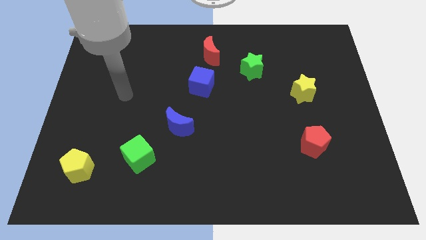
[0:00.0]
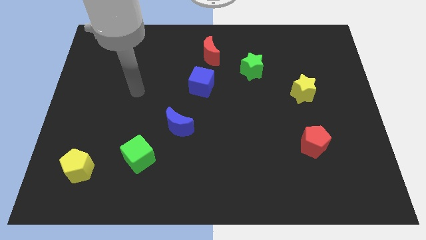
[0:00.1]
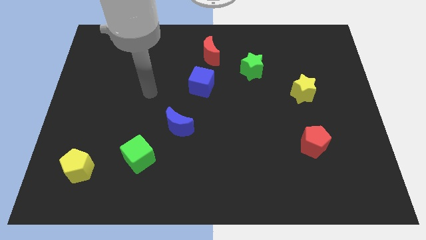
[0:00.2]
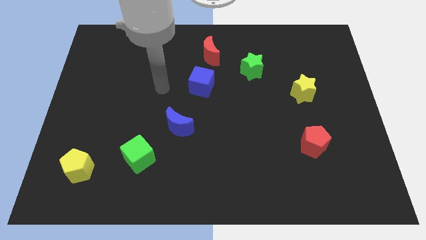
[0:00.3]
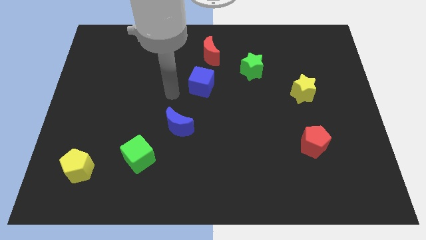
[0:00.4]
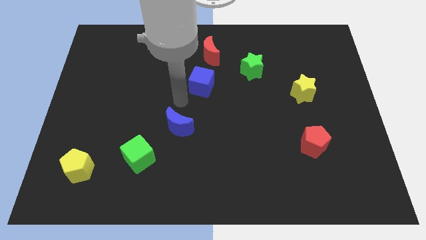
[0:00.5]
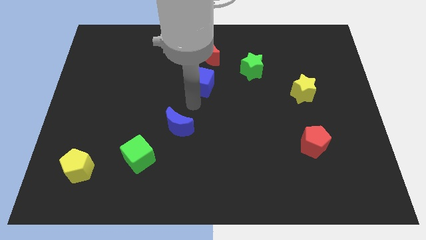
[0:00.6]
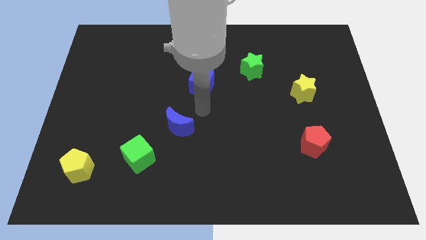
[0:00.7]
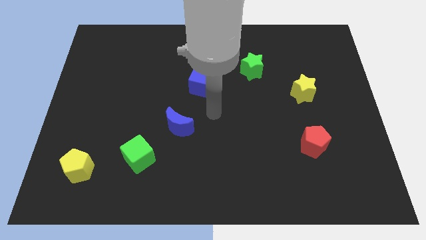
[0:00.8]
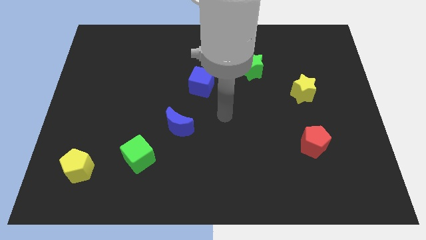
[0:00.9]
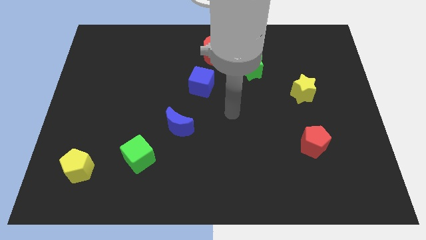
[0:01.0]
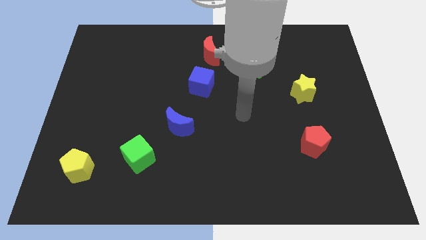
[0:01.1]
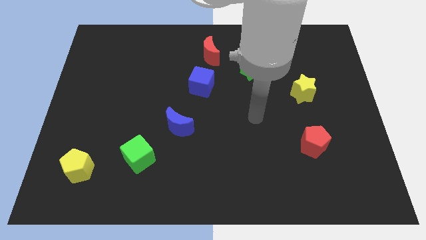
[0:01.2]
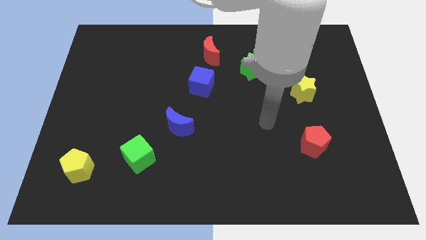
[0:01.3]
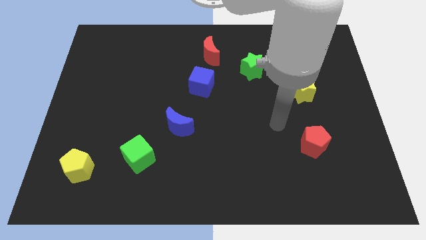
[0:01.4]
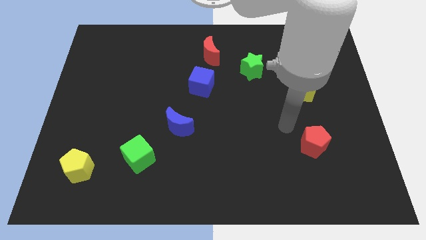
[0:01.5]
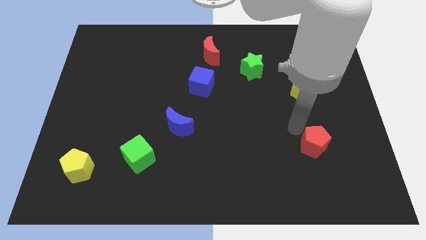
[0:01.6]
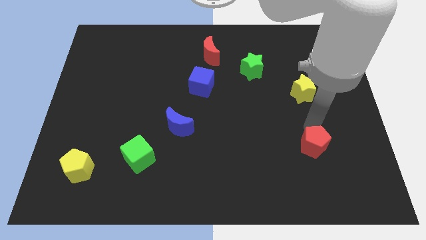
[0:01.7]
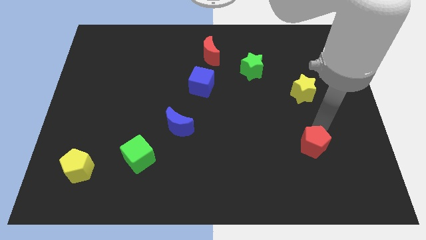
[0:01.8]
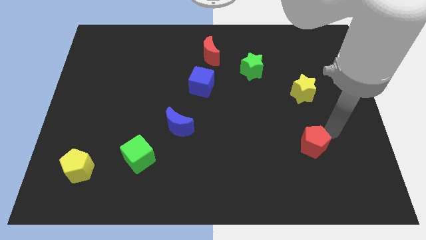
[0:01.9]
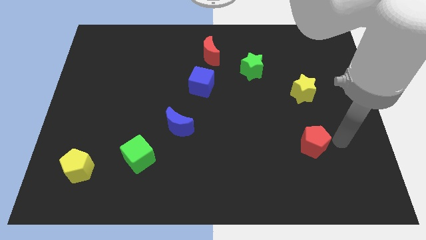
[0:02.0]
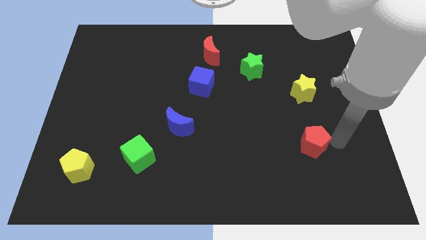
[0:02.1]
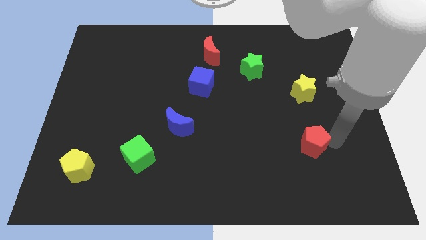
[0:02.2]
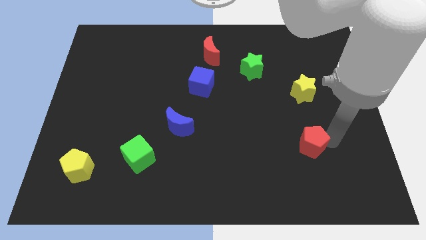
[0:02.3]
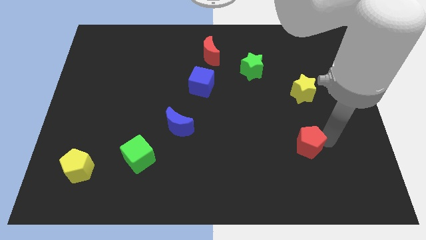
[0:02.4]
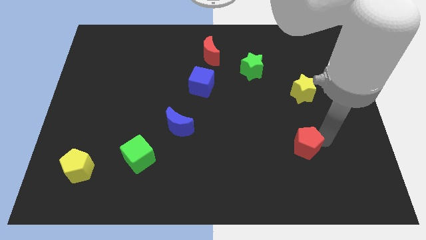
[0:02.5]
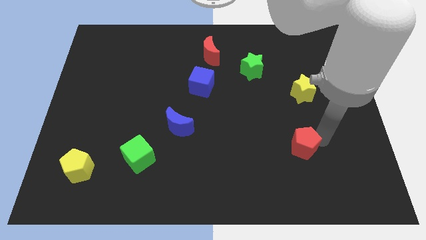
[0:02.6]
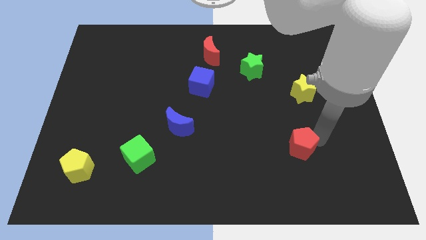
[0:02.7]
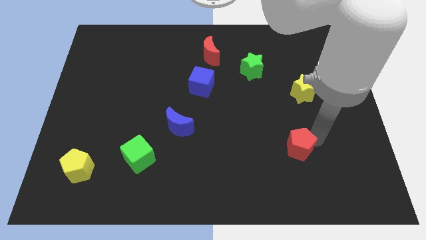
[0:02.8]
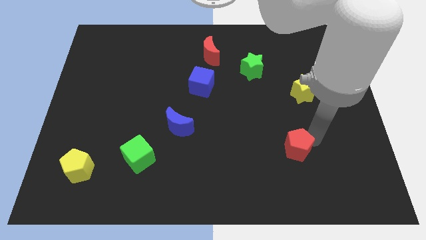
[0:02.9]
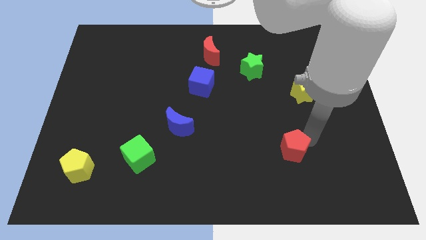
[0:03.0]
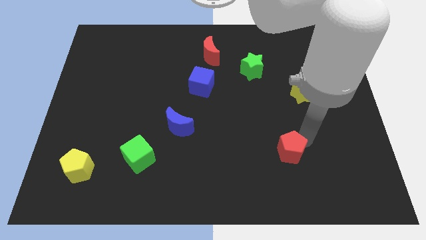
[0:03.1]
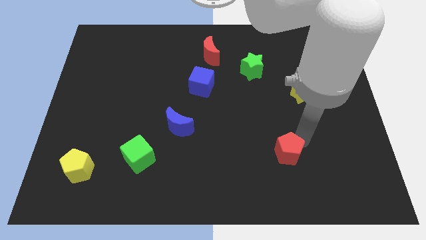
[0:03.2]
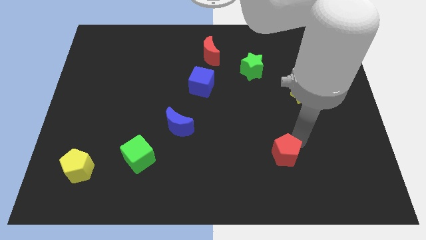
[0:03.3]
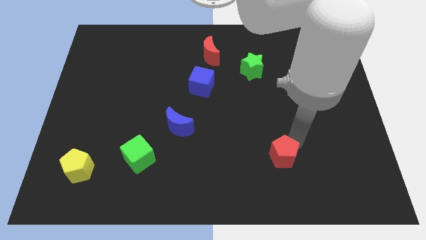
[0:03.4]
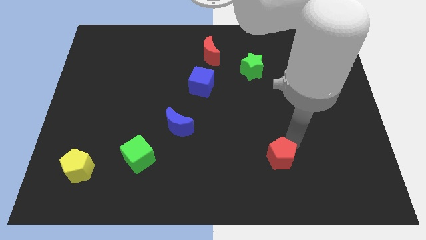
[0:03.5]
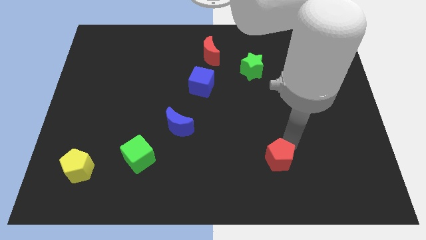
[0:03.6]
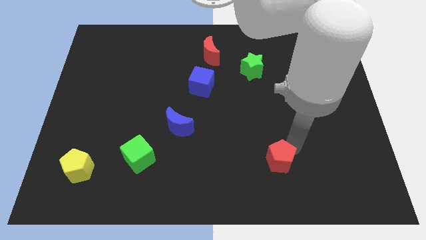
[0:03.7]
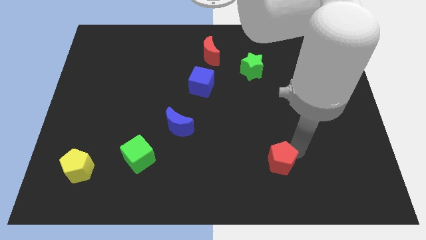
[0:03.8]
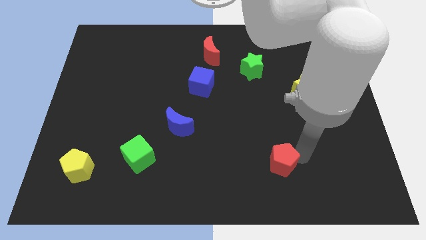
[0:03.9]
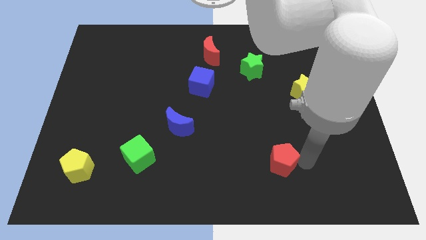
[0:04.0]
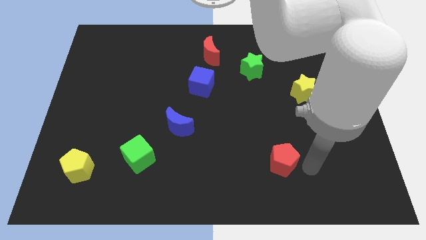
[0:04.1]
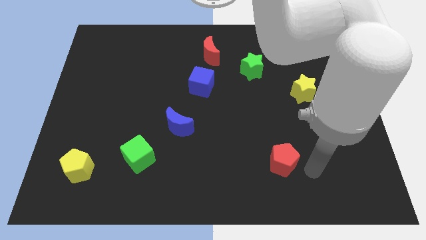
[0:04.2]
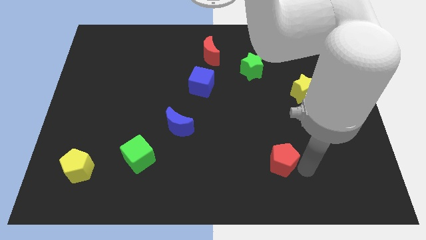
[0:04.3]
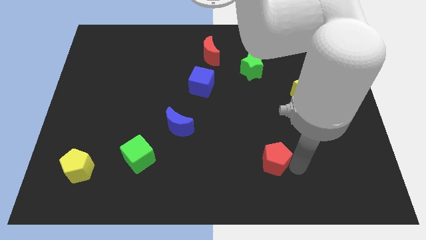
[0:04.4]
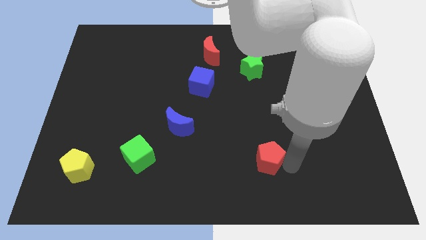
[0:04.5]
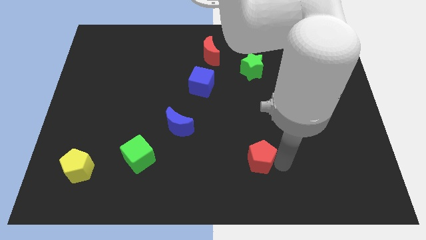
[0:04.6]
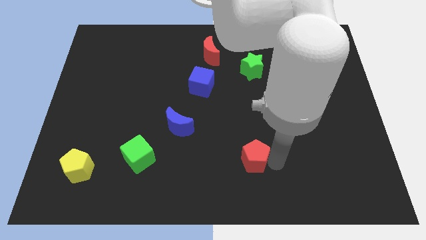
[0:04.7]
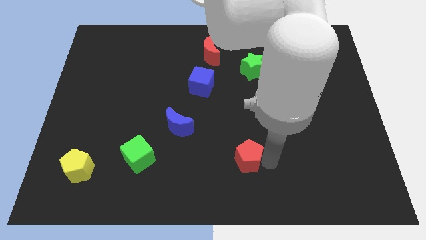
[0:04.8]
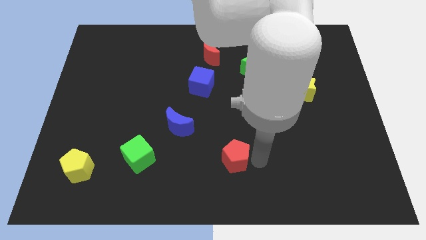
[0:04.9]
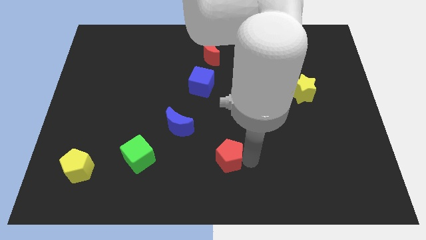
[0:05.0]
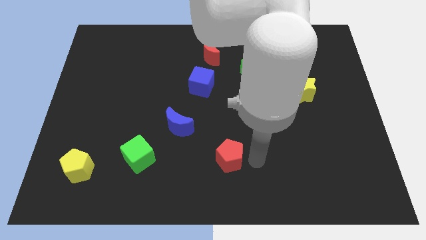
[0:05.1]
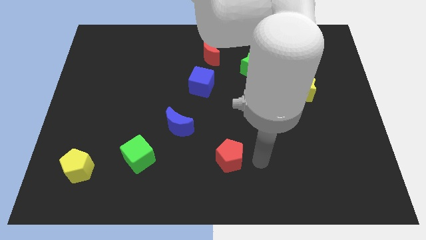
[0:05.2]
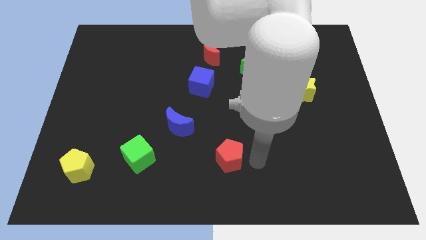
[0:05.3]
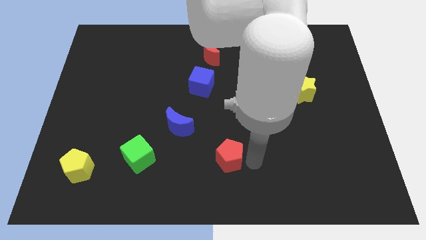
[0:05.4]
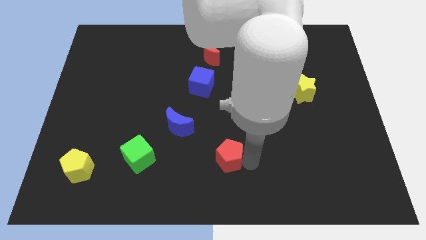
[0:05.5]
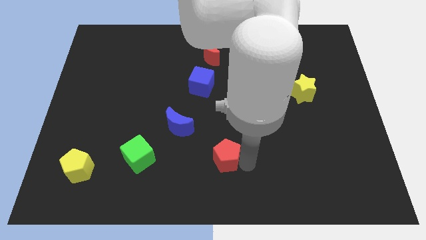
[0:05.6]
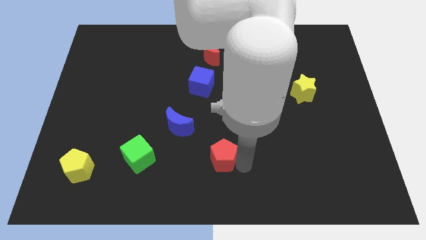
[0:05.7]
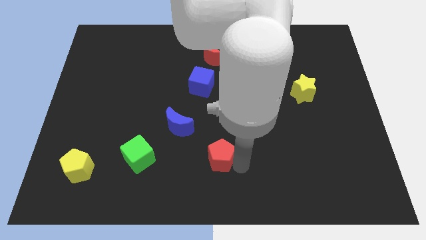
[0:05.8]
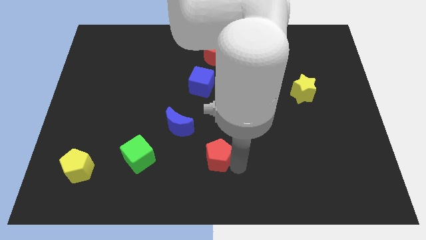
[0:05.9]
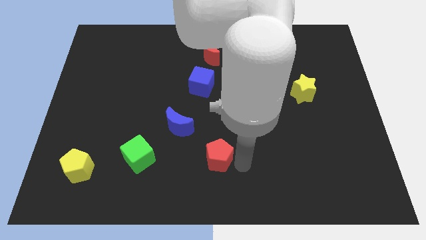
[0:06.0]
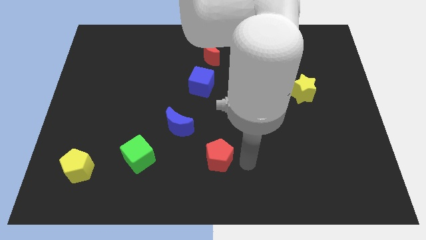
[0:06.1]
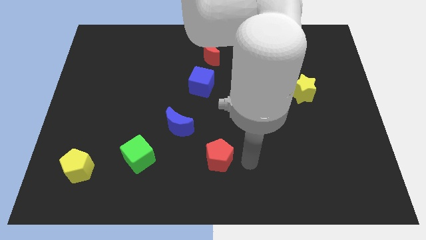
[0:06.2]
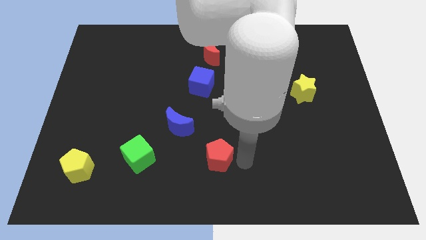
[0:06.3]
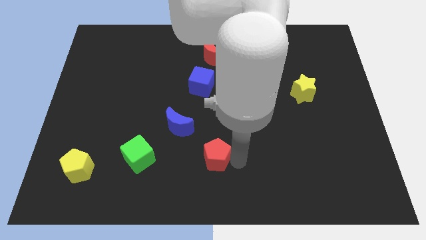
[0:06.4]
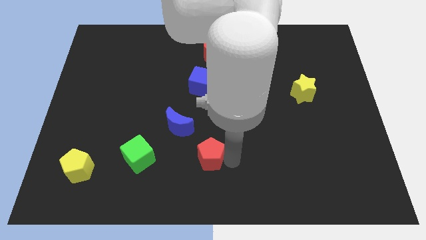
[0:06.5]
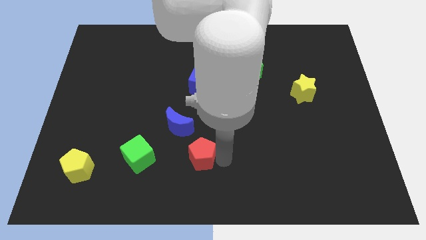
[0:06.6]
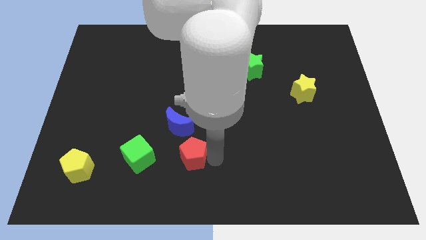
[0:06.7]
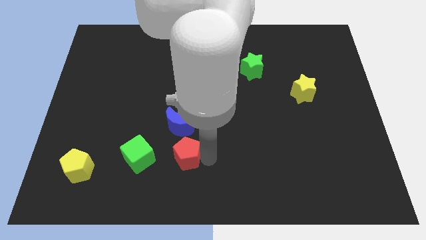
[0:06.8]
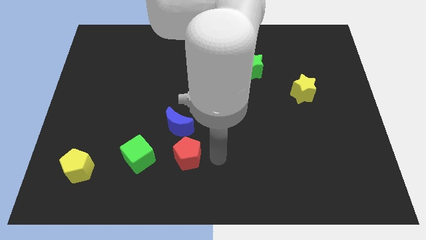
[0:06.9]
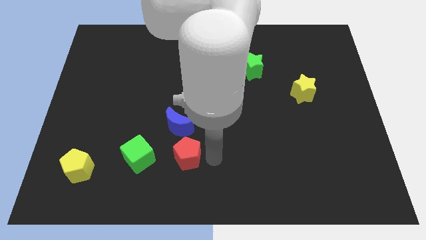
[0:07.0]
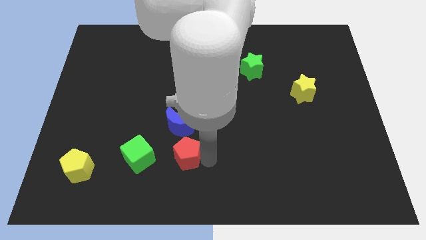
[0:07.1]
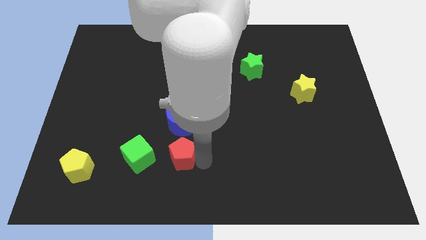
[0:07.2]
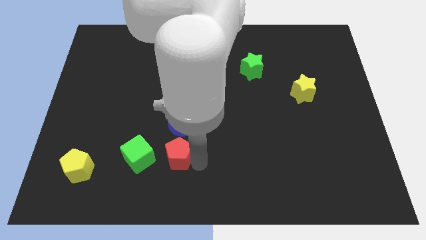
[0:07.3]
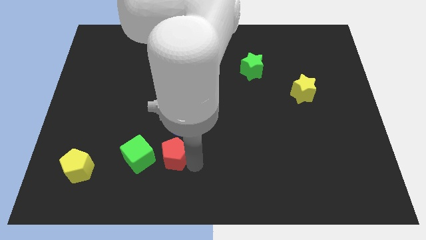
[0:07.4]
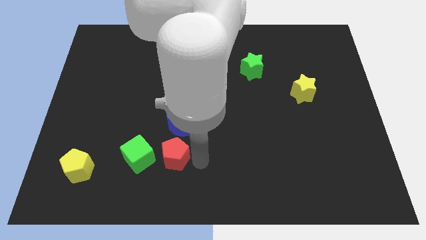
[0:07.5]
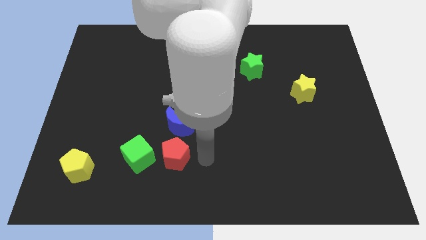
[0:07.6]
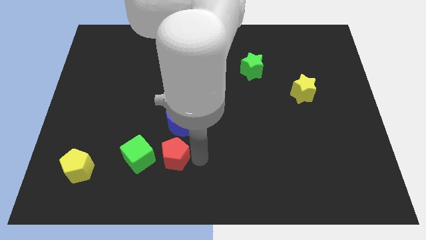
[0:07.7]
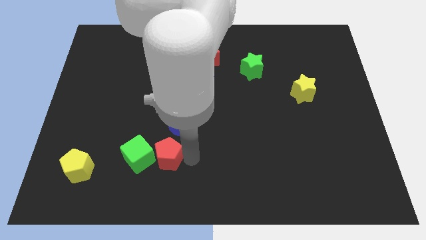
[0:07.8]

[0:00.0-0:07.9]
move the red pentagon next to the green cube
